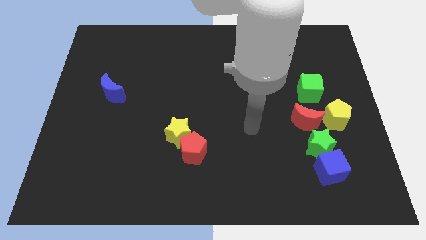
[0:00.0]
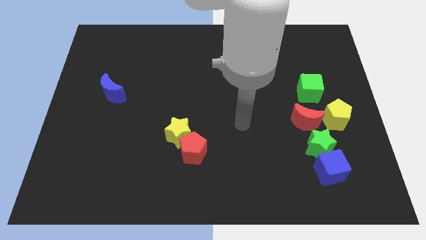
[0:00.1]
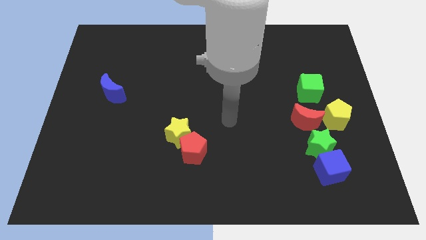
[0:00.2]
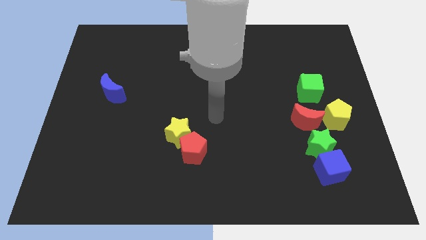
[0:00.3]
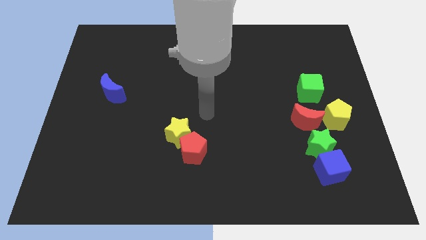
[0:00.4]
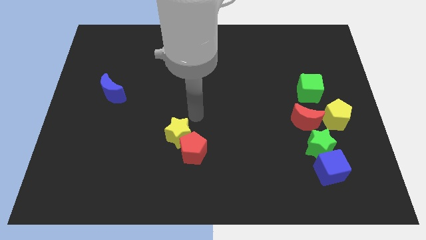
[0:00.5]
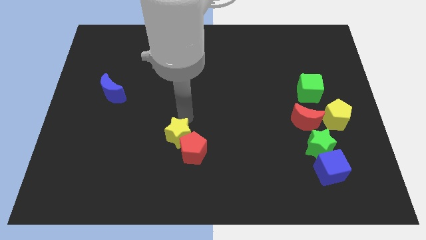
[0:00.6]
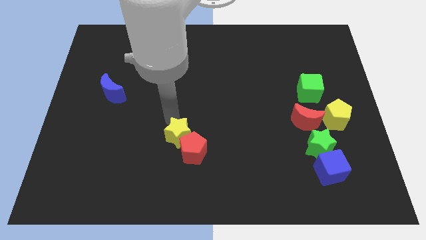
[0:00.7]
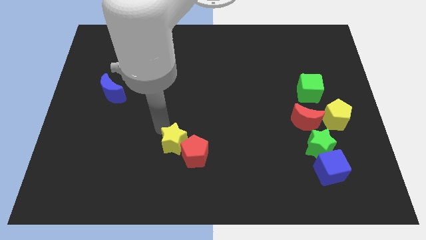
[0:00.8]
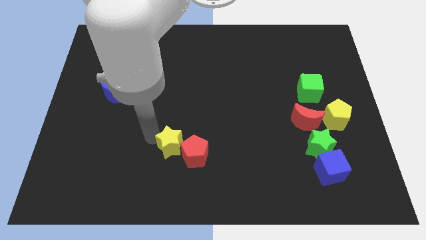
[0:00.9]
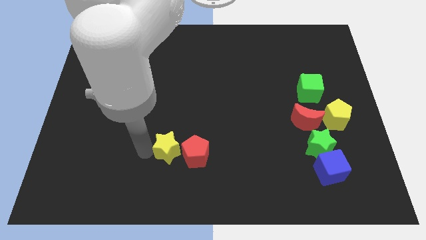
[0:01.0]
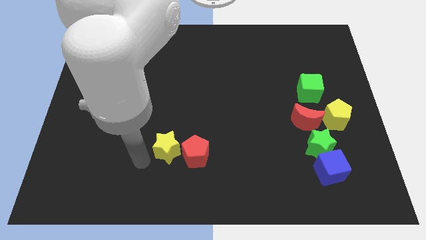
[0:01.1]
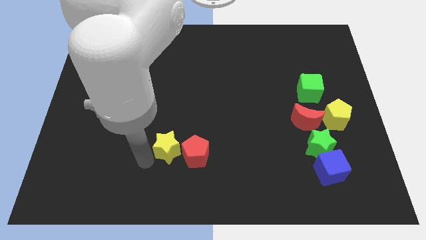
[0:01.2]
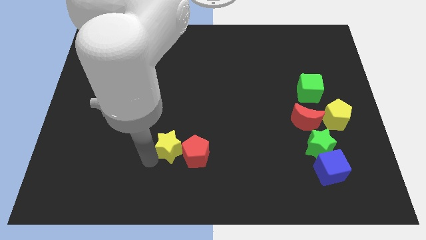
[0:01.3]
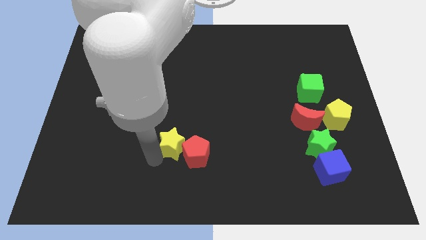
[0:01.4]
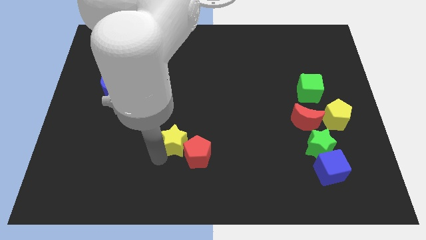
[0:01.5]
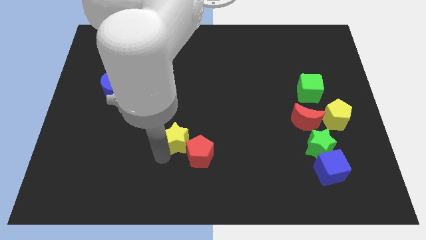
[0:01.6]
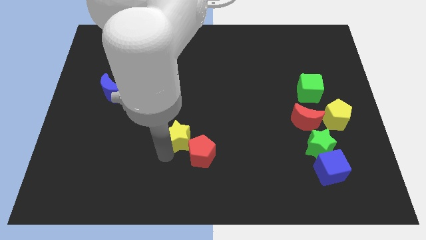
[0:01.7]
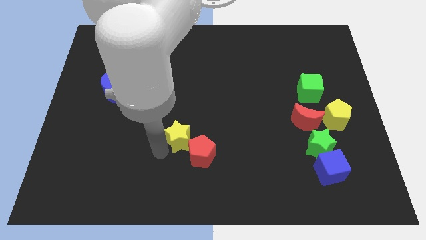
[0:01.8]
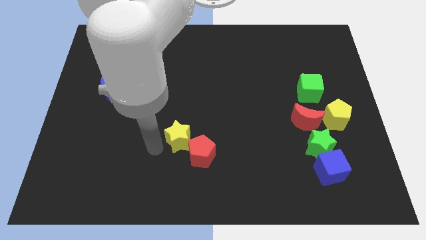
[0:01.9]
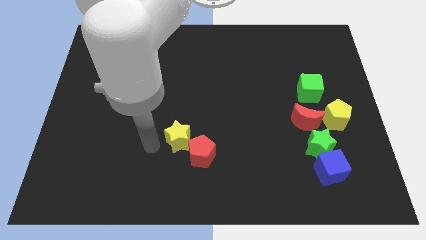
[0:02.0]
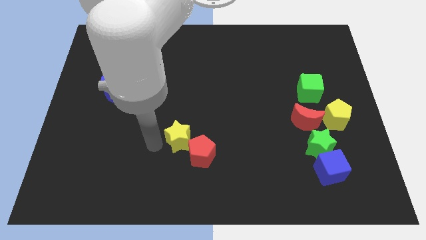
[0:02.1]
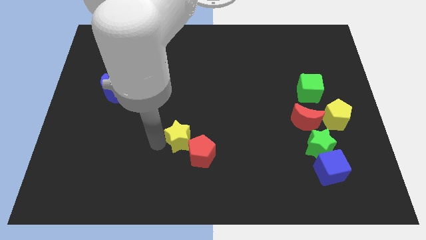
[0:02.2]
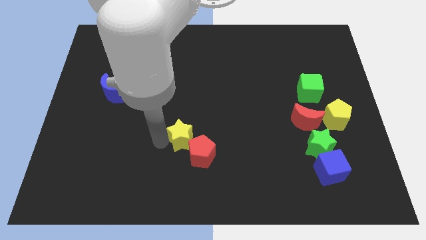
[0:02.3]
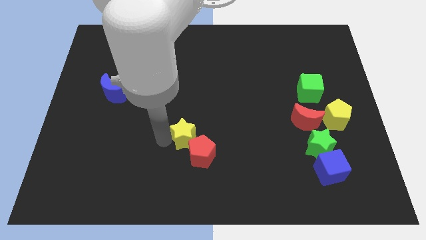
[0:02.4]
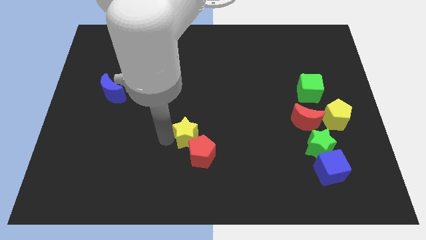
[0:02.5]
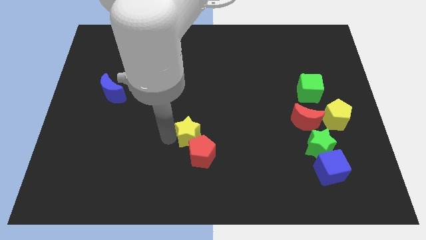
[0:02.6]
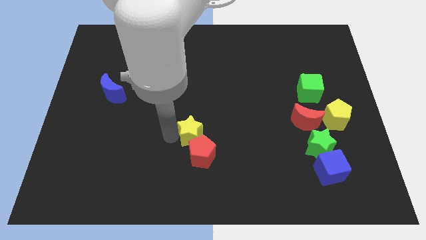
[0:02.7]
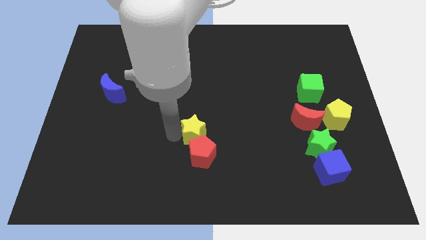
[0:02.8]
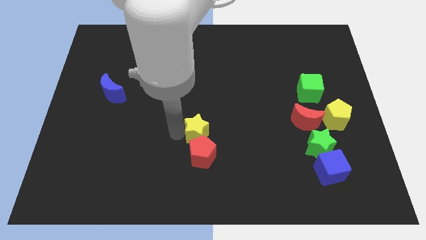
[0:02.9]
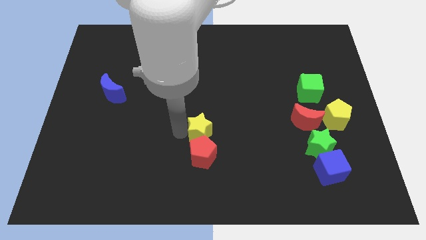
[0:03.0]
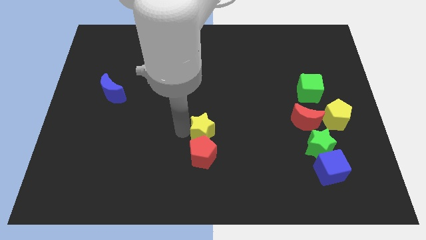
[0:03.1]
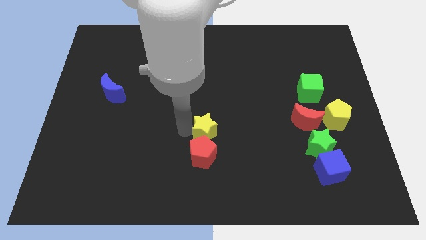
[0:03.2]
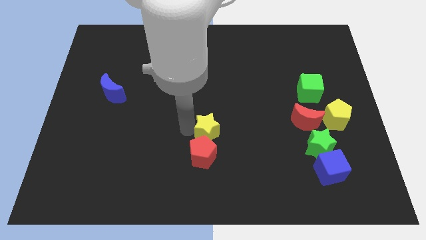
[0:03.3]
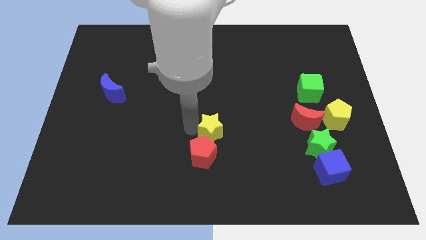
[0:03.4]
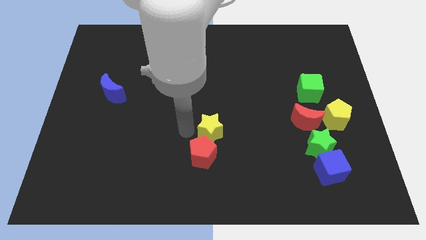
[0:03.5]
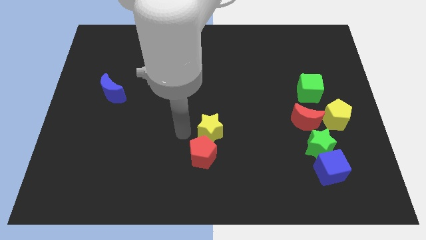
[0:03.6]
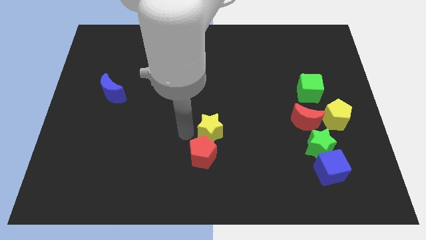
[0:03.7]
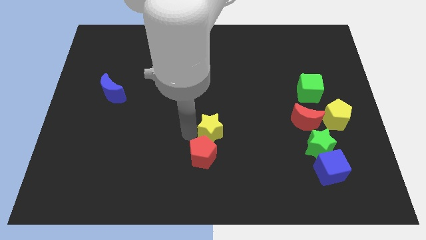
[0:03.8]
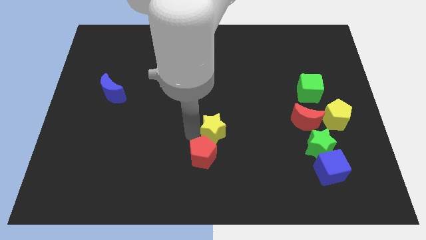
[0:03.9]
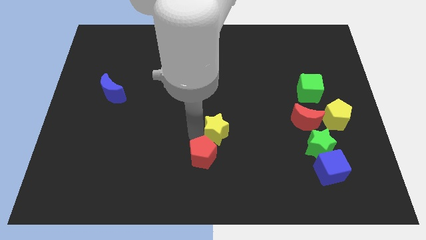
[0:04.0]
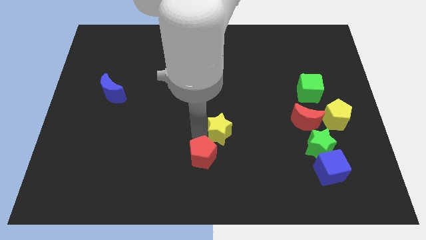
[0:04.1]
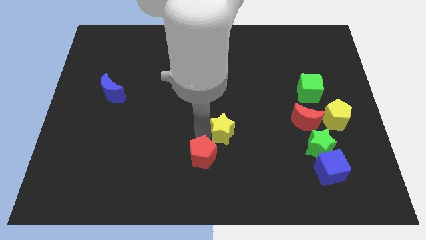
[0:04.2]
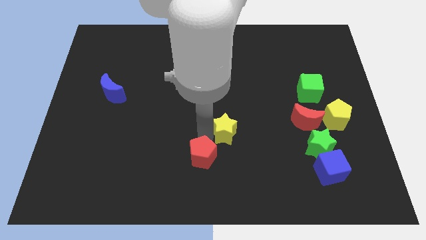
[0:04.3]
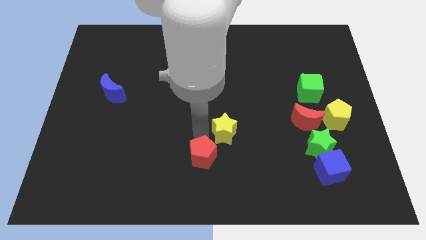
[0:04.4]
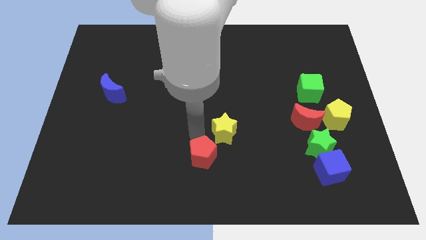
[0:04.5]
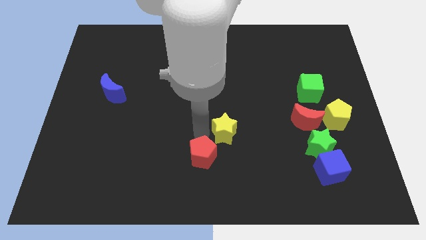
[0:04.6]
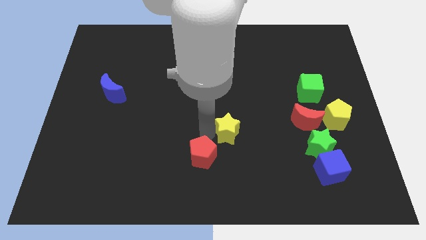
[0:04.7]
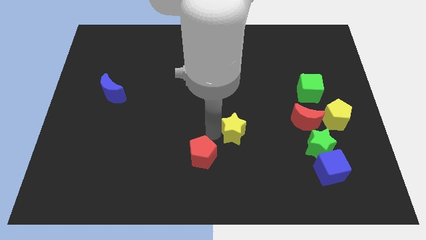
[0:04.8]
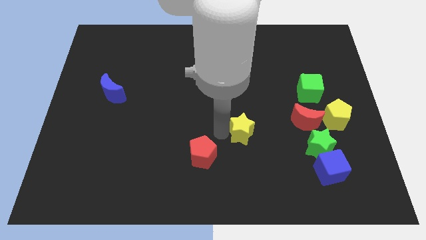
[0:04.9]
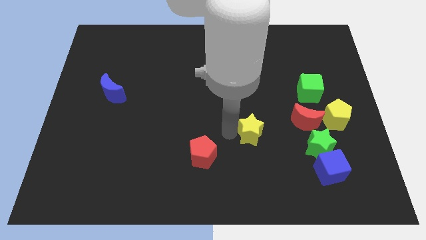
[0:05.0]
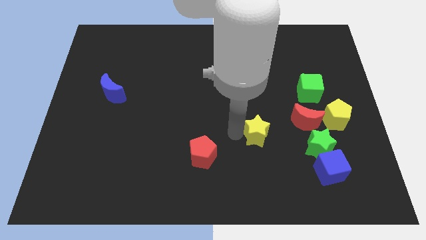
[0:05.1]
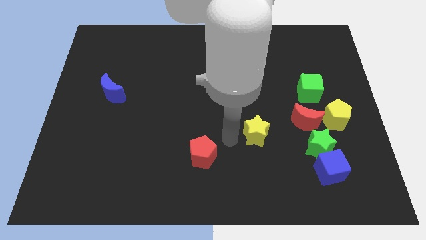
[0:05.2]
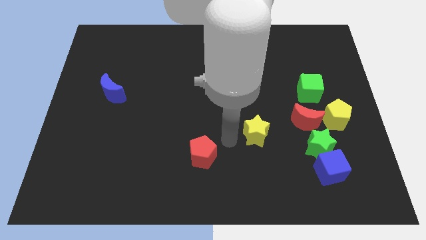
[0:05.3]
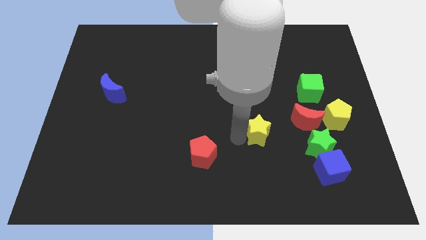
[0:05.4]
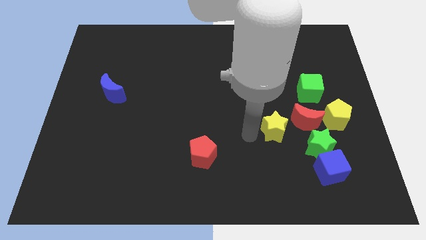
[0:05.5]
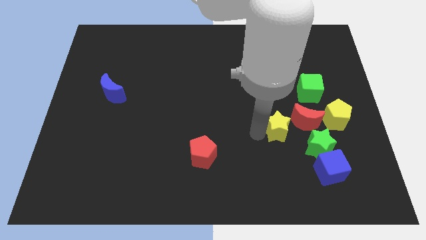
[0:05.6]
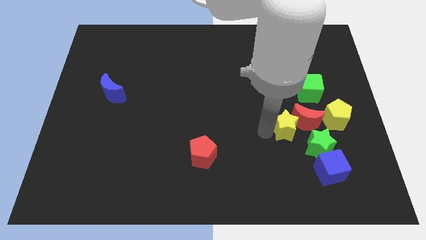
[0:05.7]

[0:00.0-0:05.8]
put the yellow star next to the red moon

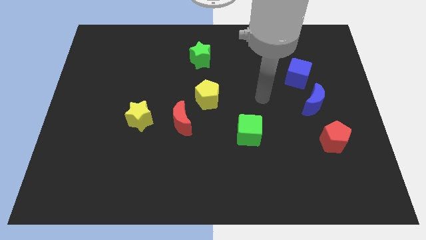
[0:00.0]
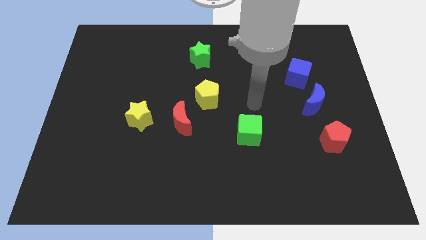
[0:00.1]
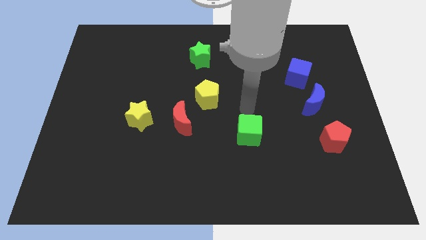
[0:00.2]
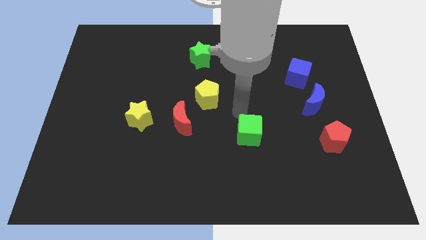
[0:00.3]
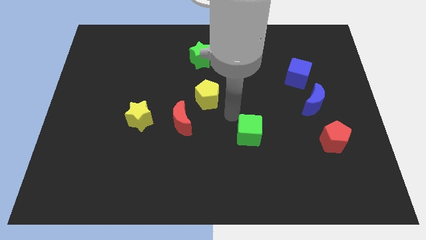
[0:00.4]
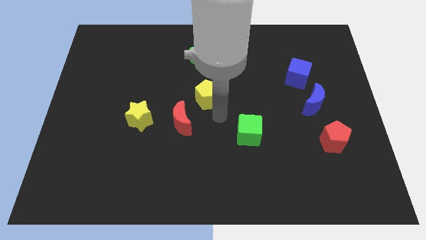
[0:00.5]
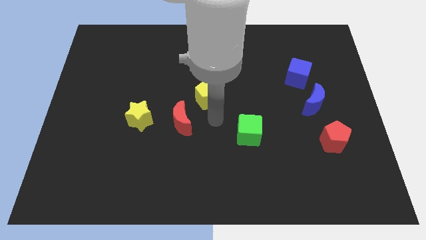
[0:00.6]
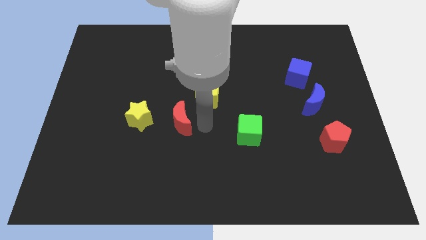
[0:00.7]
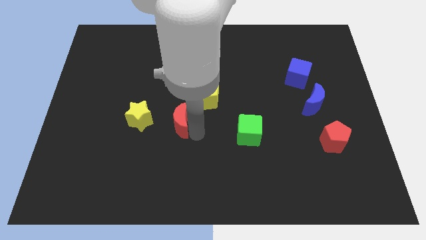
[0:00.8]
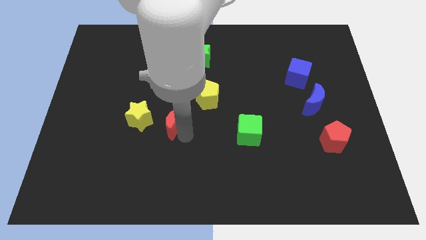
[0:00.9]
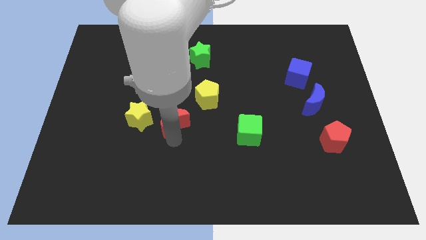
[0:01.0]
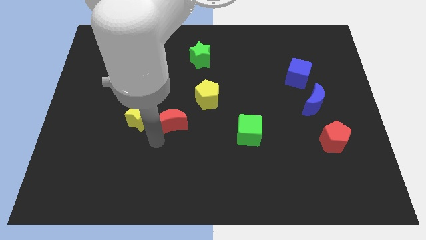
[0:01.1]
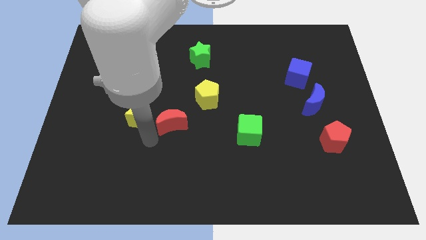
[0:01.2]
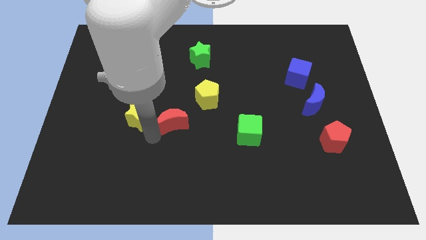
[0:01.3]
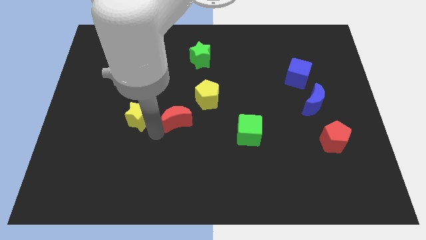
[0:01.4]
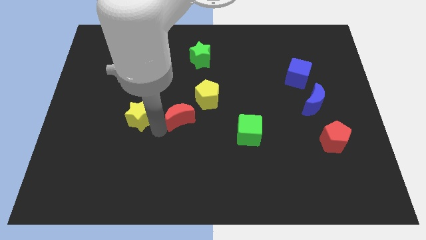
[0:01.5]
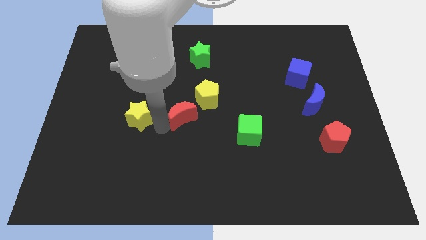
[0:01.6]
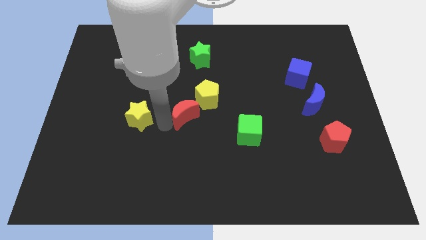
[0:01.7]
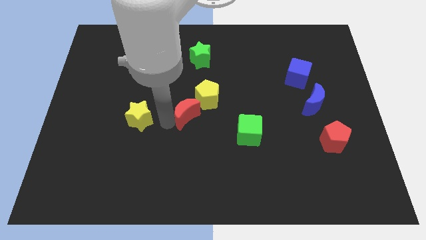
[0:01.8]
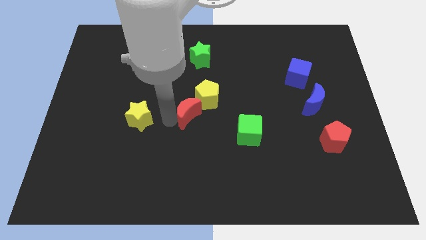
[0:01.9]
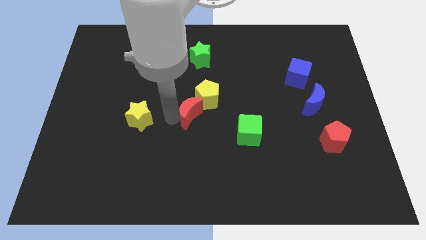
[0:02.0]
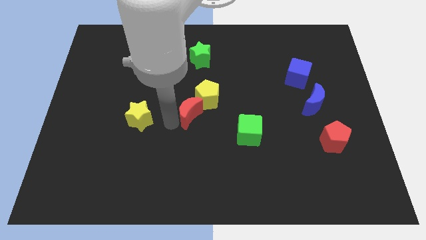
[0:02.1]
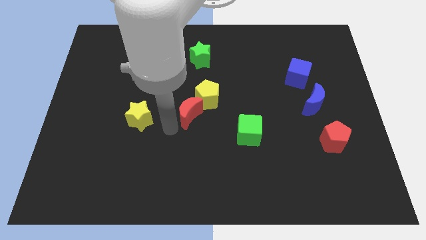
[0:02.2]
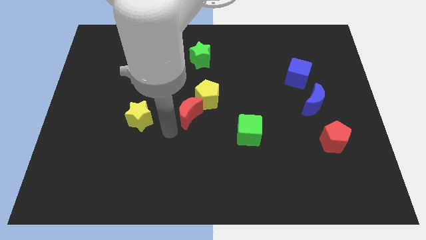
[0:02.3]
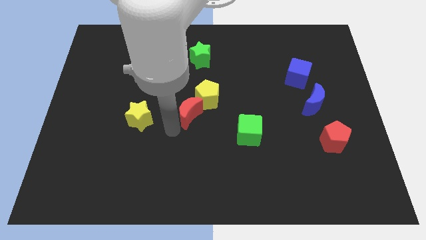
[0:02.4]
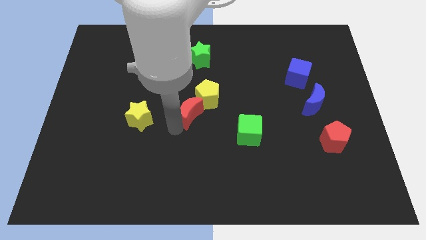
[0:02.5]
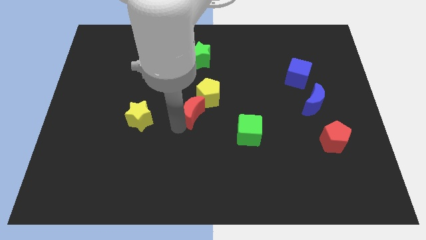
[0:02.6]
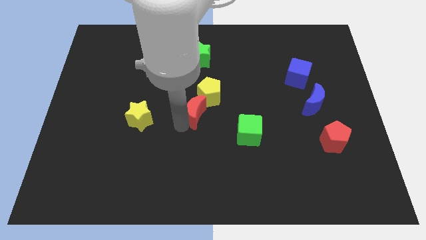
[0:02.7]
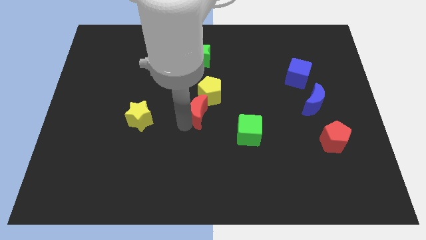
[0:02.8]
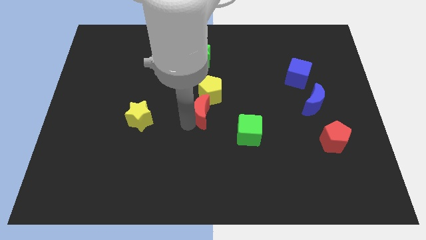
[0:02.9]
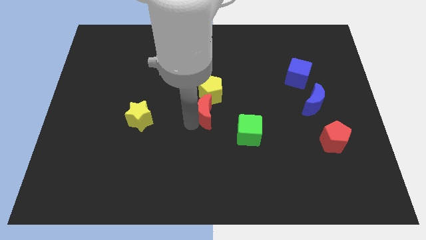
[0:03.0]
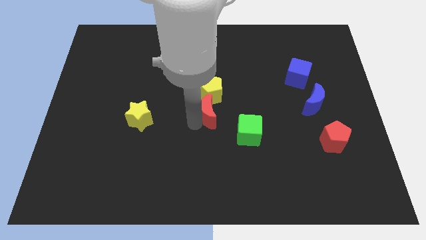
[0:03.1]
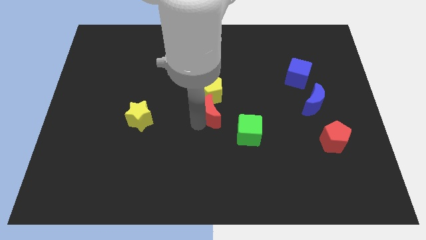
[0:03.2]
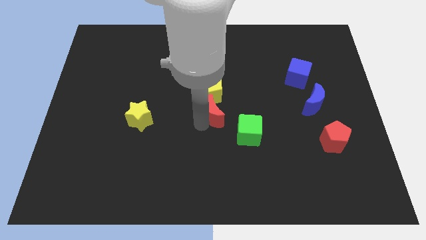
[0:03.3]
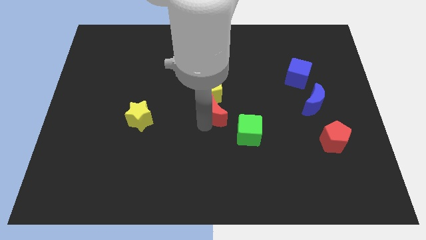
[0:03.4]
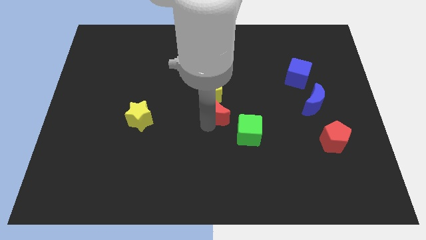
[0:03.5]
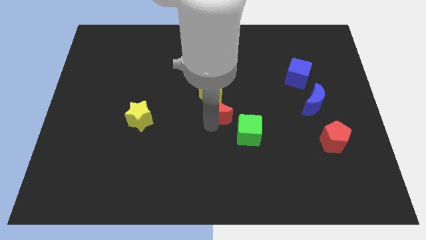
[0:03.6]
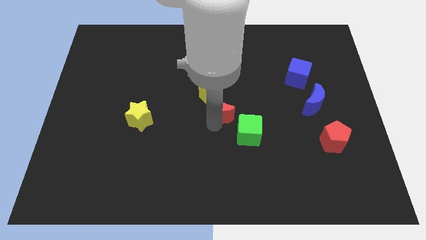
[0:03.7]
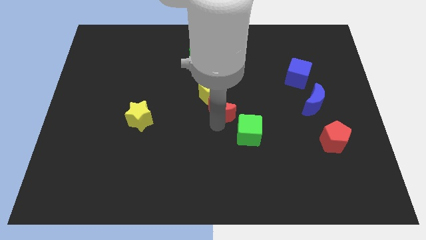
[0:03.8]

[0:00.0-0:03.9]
put the red moon next to the yellow pentagon
